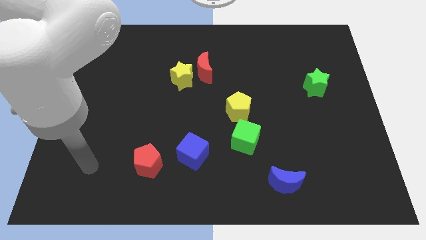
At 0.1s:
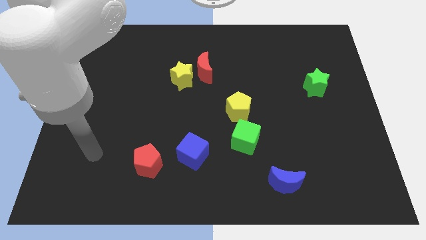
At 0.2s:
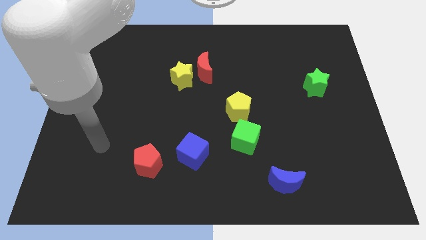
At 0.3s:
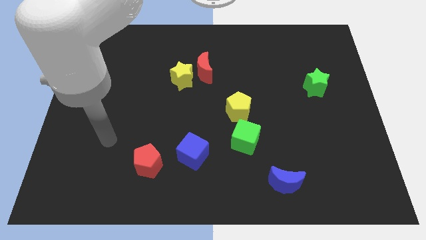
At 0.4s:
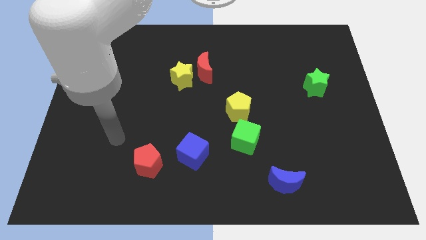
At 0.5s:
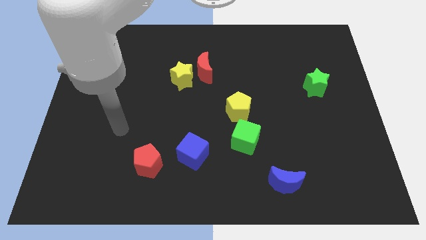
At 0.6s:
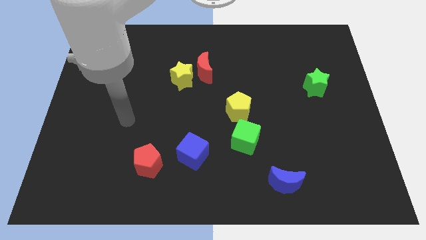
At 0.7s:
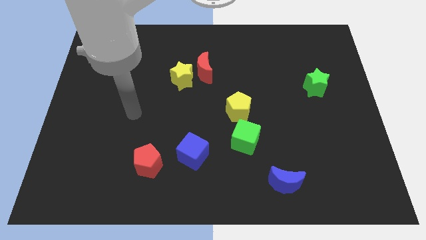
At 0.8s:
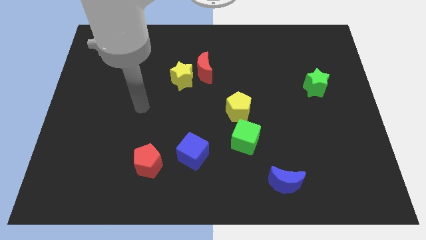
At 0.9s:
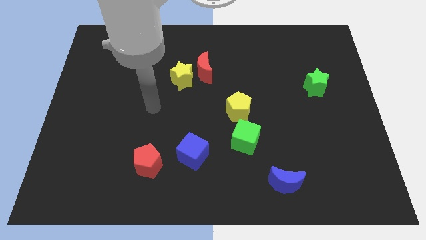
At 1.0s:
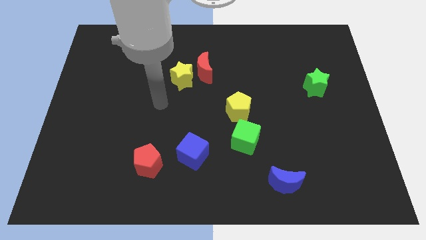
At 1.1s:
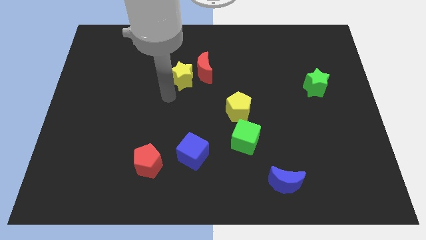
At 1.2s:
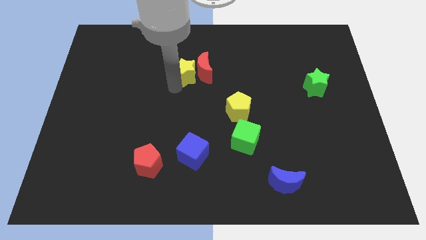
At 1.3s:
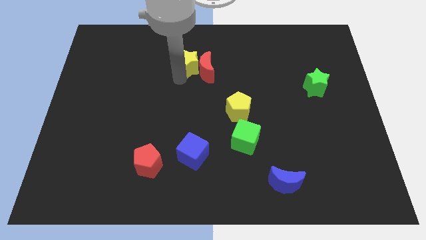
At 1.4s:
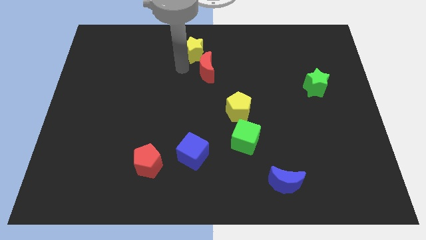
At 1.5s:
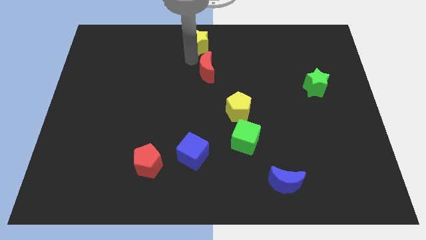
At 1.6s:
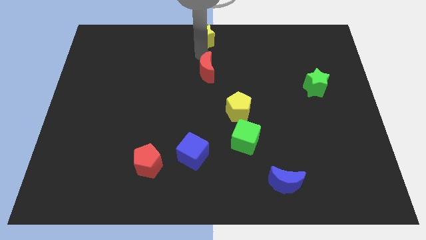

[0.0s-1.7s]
separate the red moon from the yellow star

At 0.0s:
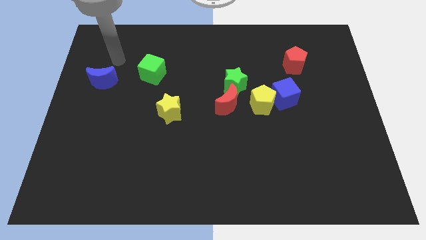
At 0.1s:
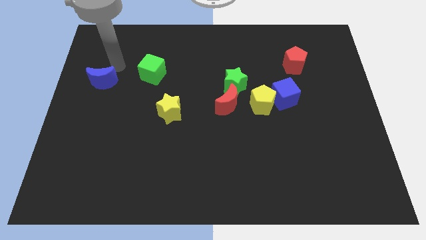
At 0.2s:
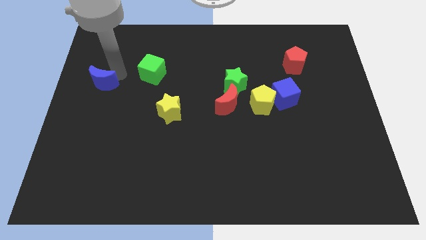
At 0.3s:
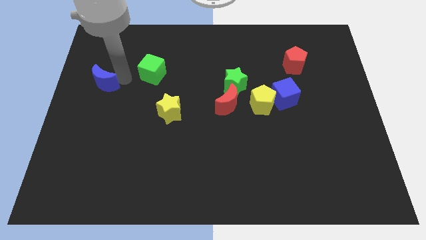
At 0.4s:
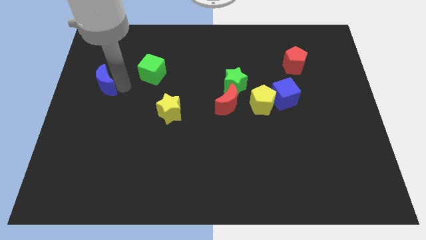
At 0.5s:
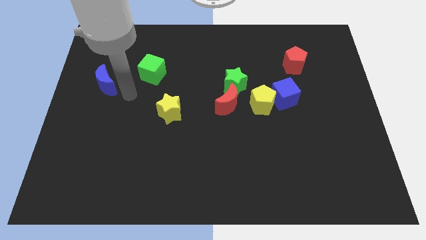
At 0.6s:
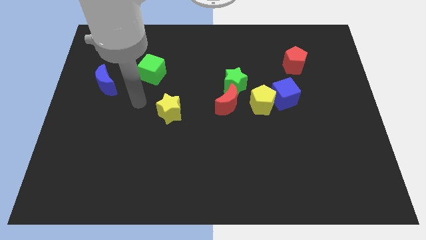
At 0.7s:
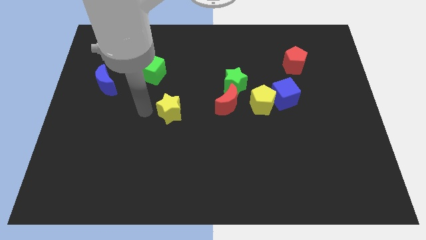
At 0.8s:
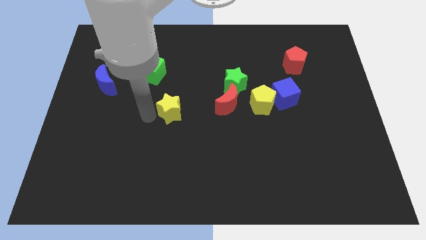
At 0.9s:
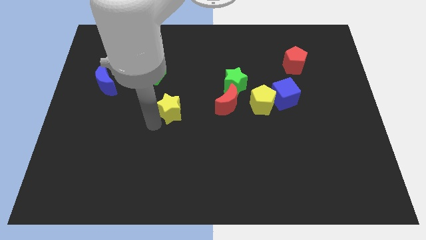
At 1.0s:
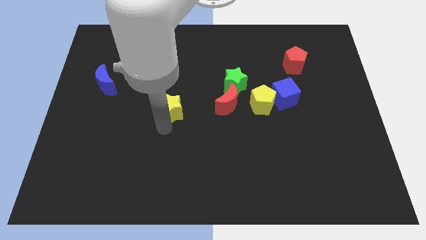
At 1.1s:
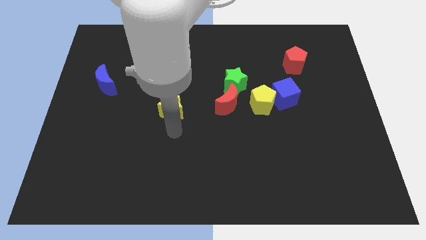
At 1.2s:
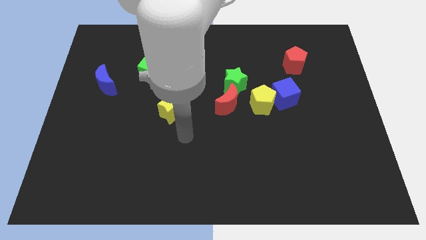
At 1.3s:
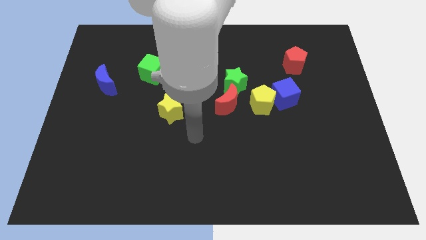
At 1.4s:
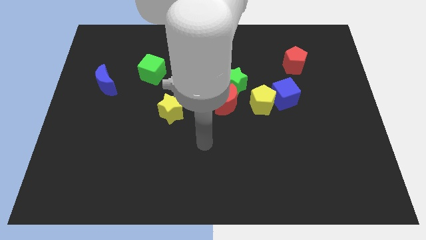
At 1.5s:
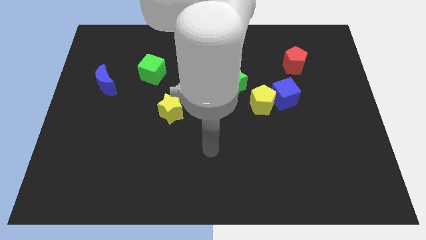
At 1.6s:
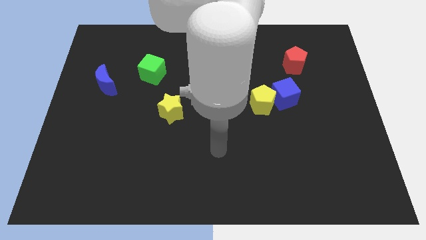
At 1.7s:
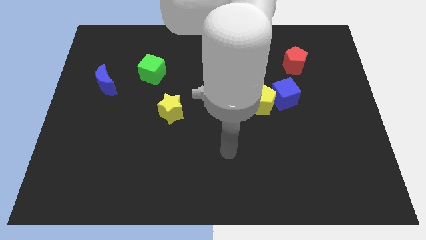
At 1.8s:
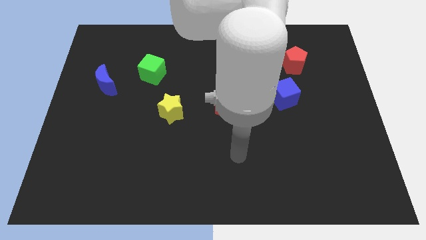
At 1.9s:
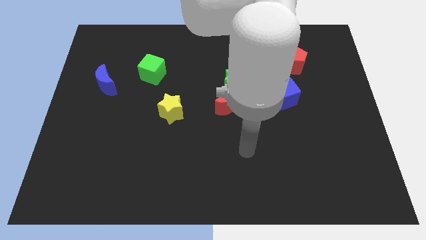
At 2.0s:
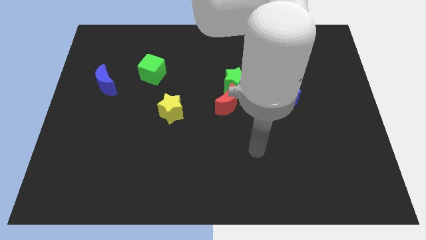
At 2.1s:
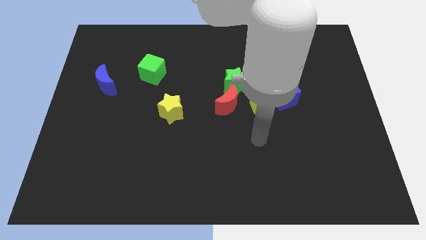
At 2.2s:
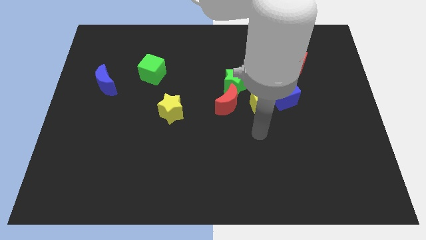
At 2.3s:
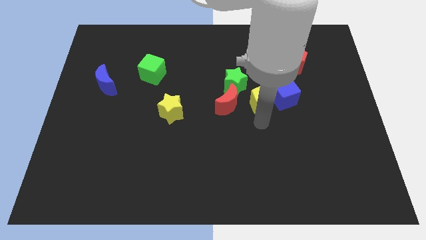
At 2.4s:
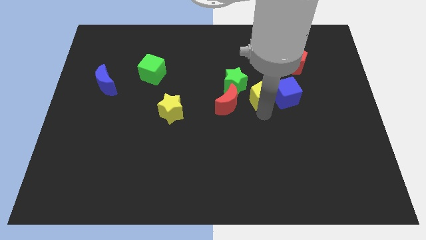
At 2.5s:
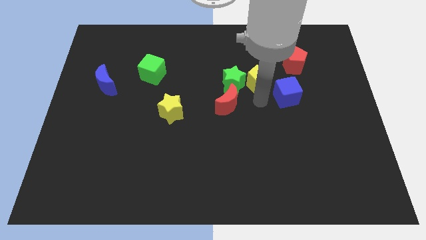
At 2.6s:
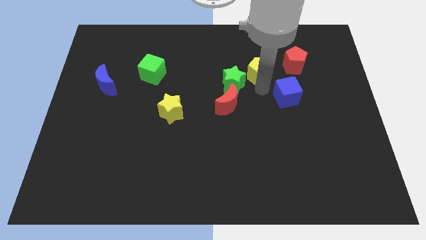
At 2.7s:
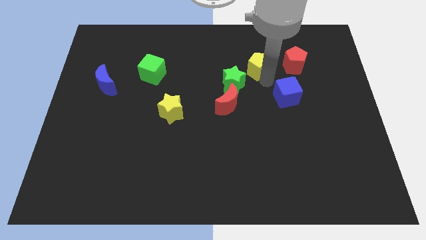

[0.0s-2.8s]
pull the blue cube apart from the yellow pentagon

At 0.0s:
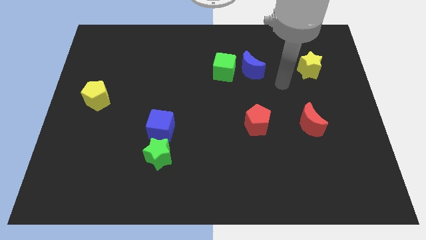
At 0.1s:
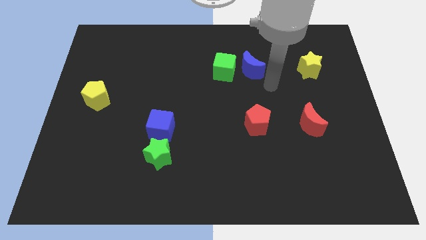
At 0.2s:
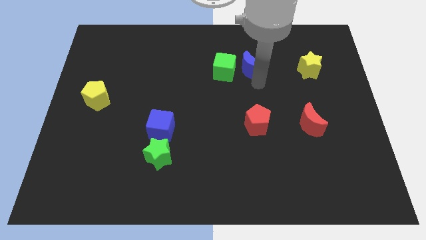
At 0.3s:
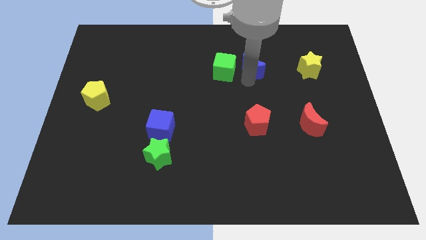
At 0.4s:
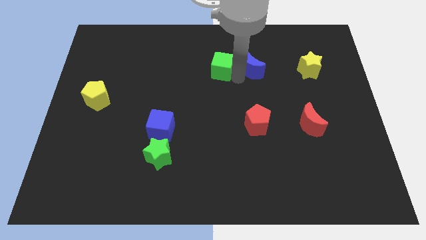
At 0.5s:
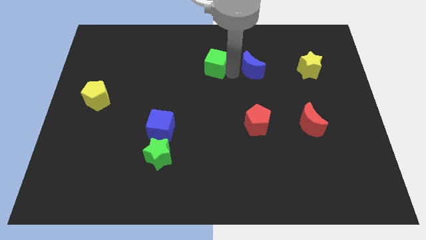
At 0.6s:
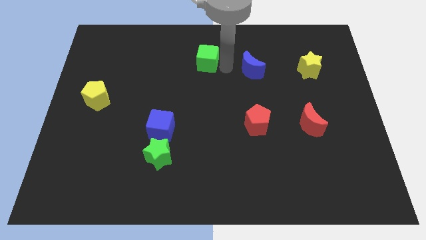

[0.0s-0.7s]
pull the blue moon apart from the green cube

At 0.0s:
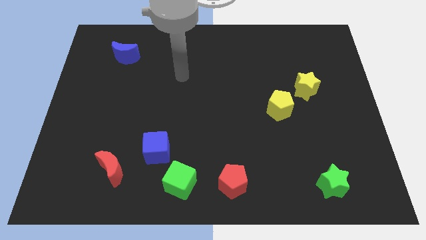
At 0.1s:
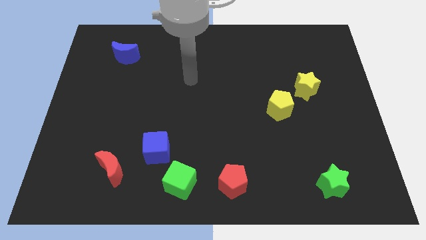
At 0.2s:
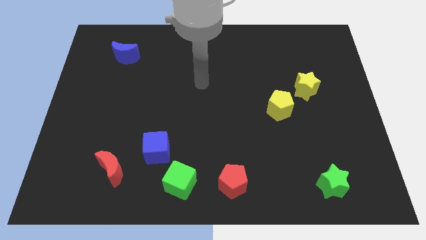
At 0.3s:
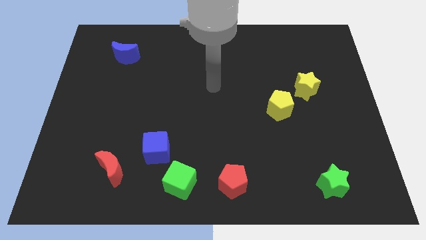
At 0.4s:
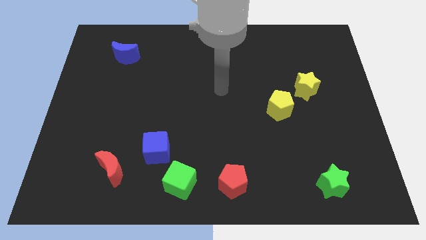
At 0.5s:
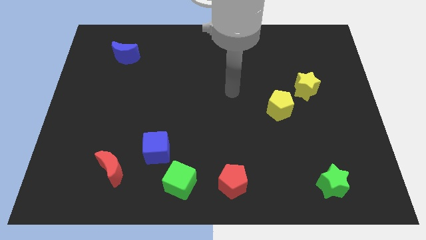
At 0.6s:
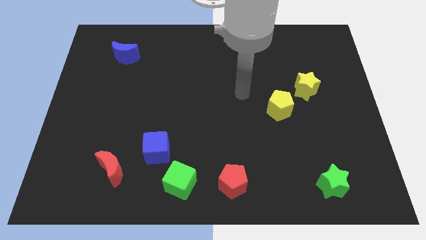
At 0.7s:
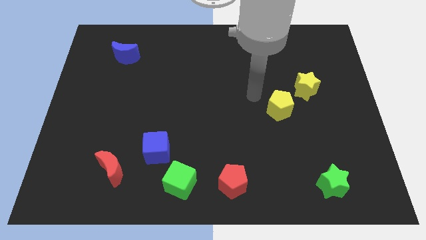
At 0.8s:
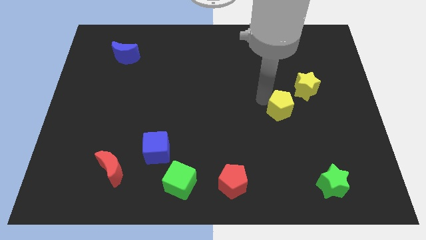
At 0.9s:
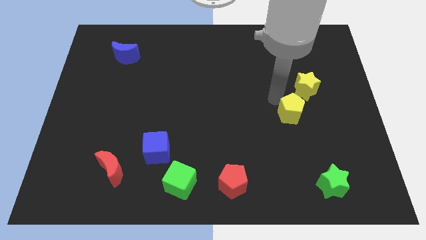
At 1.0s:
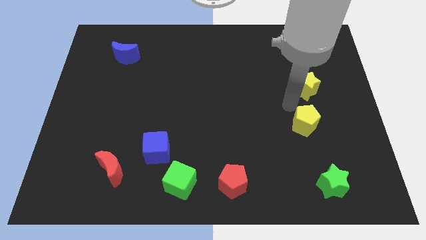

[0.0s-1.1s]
pull the yellow star apart from the yellow pentagon

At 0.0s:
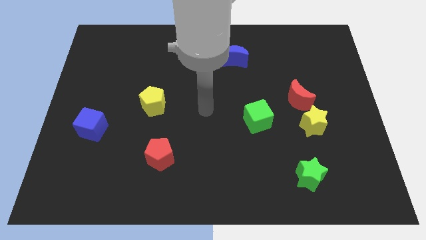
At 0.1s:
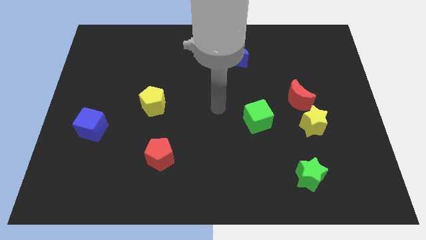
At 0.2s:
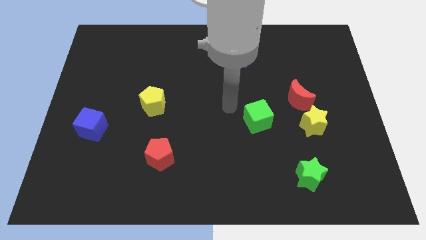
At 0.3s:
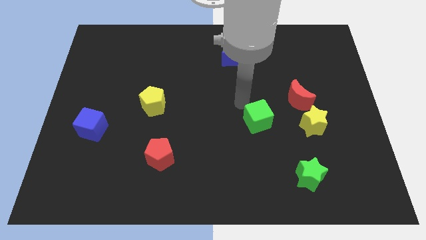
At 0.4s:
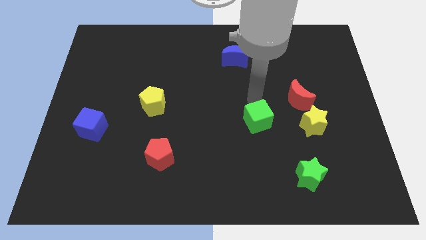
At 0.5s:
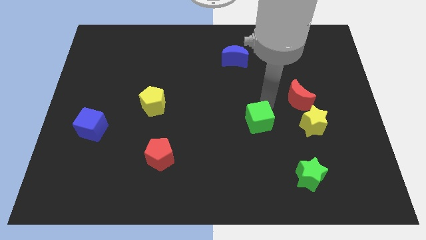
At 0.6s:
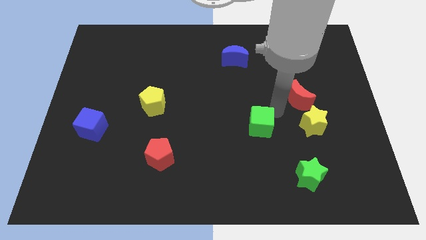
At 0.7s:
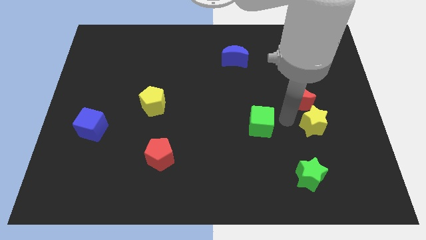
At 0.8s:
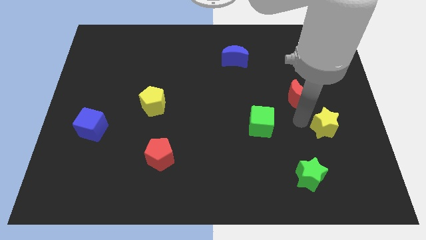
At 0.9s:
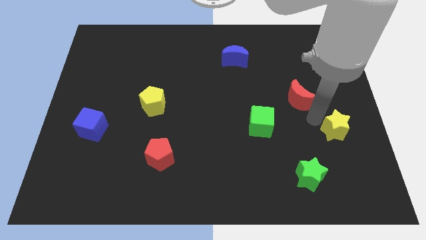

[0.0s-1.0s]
move the red moon away from the yellow star

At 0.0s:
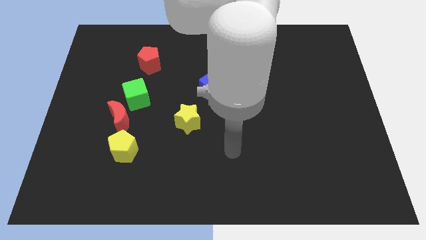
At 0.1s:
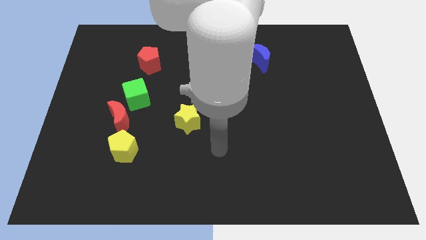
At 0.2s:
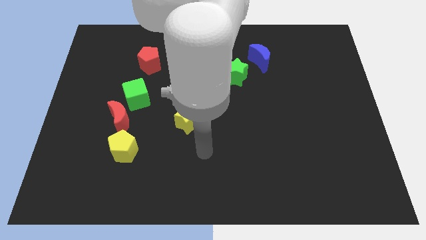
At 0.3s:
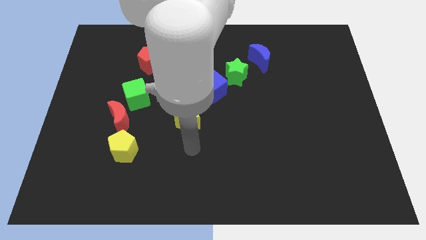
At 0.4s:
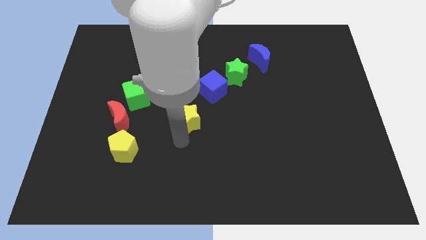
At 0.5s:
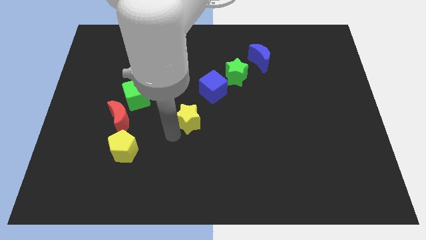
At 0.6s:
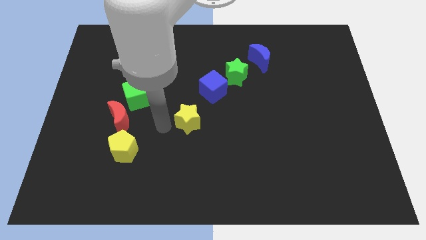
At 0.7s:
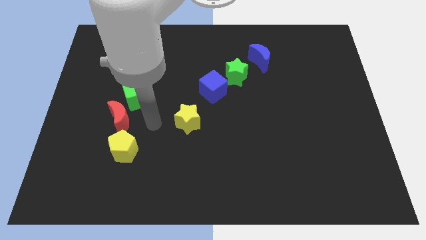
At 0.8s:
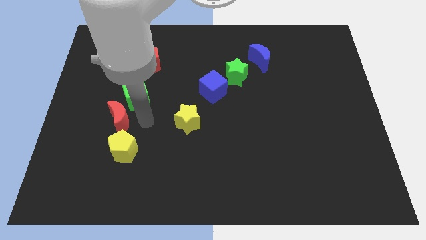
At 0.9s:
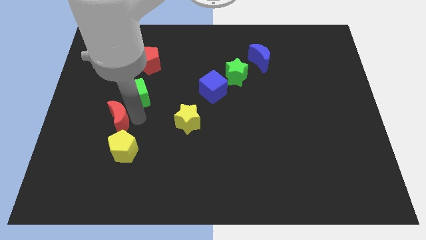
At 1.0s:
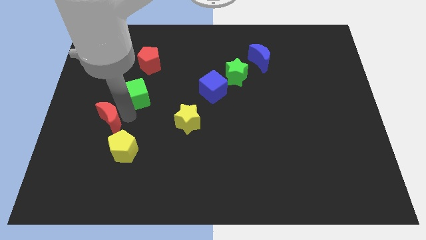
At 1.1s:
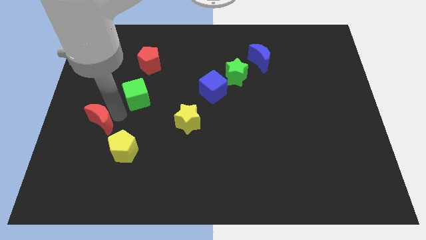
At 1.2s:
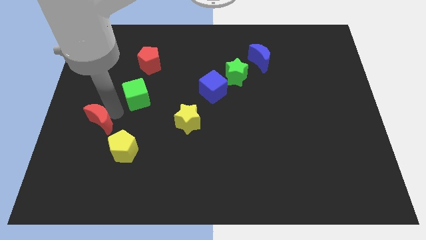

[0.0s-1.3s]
separate the green cube from the red moon

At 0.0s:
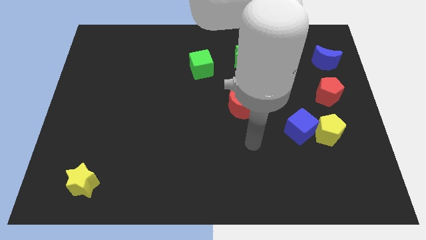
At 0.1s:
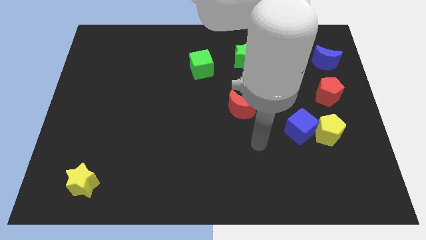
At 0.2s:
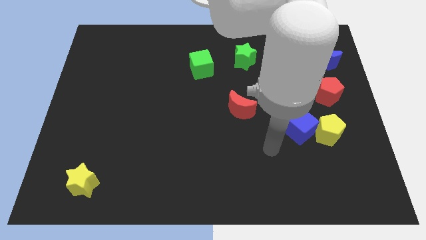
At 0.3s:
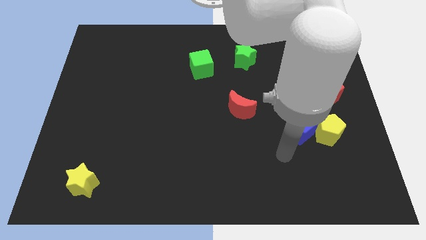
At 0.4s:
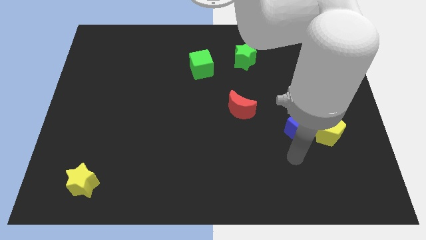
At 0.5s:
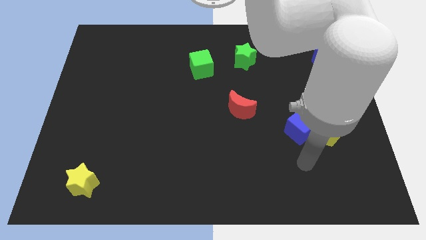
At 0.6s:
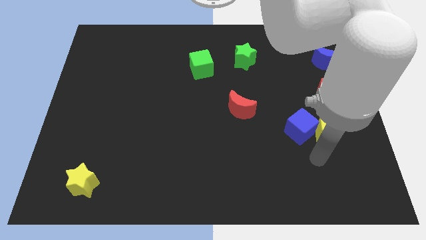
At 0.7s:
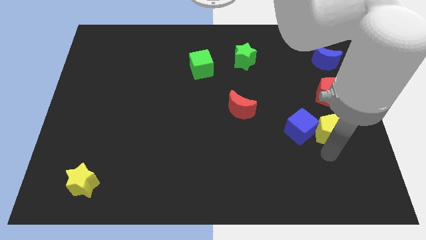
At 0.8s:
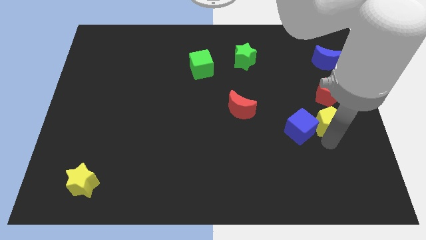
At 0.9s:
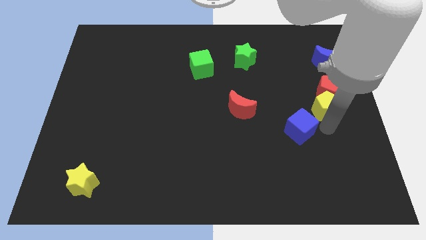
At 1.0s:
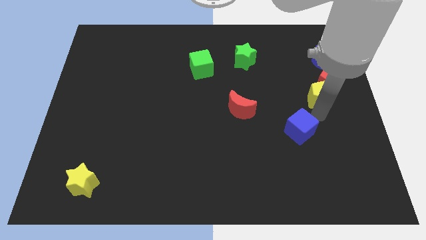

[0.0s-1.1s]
separate the blue cube from the yellow pentagon
